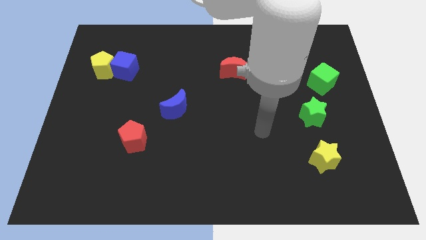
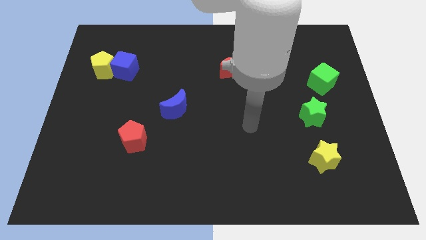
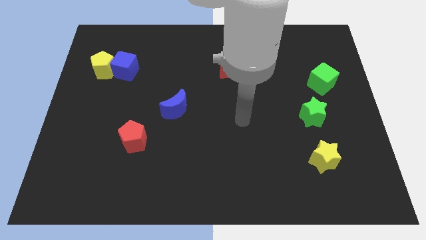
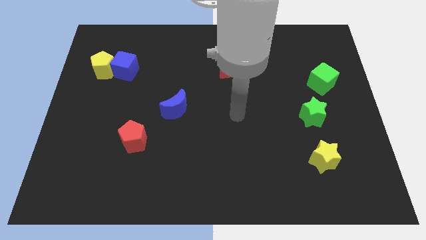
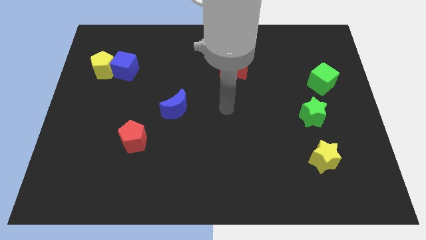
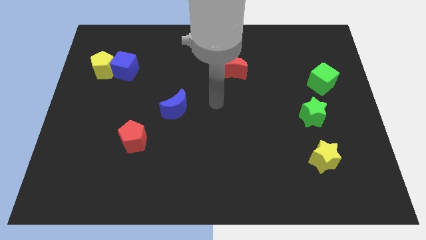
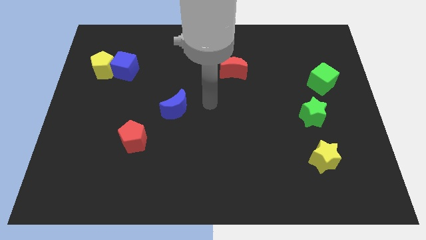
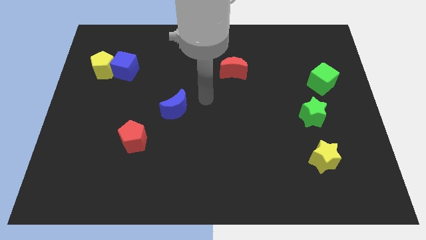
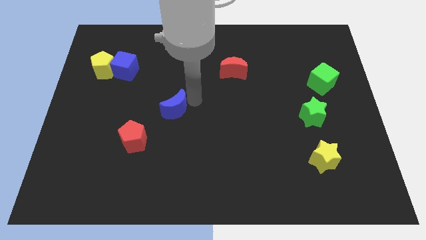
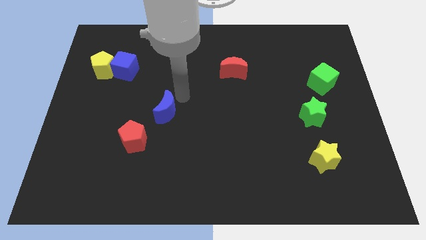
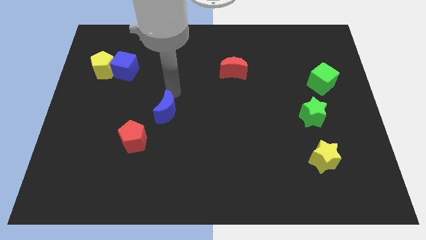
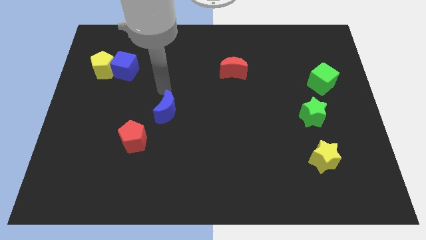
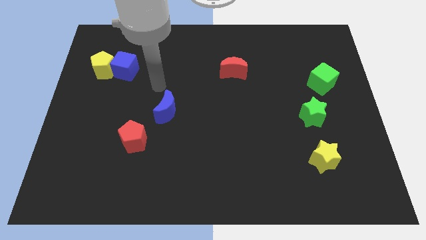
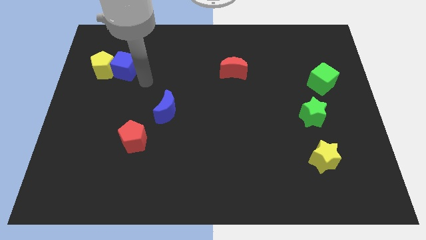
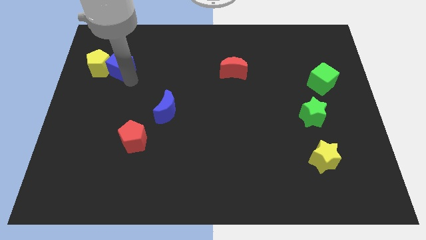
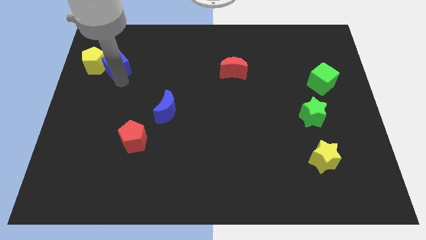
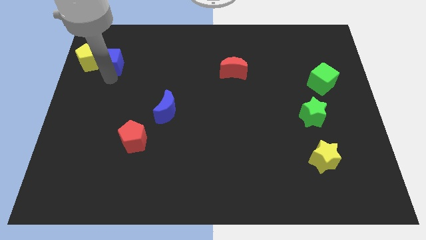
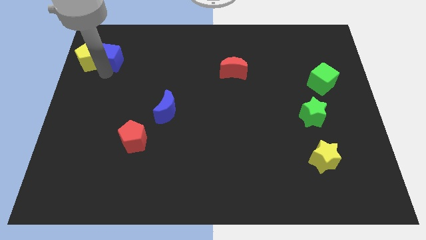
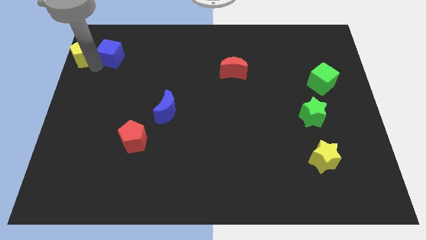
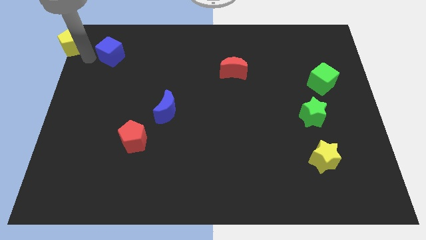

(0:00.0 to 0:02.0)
move the blue cube away from the yellow pentagon

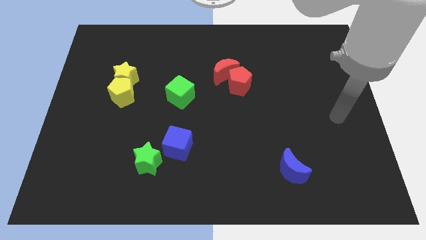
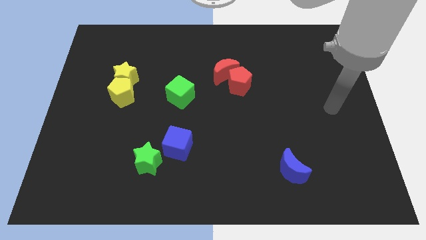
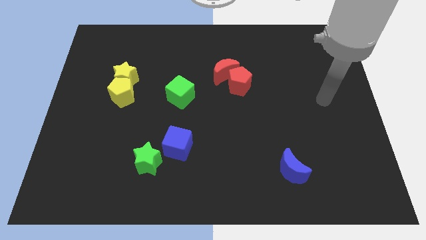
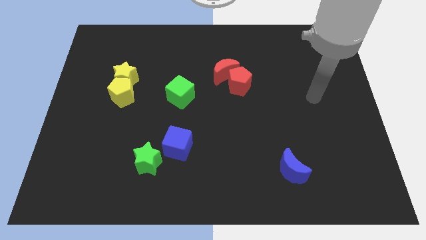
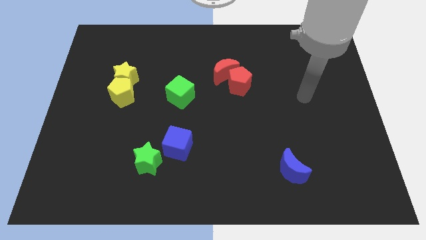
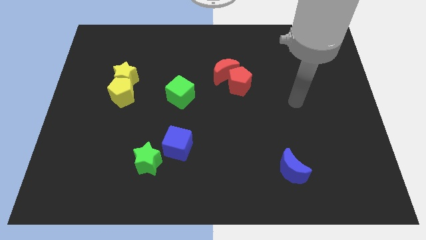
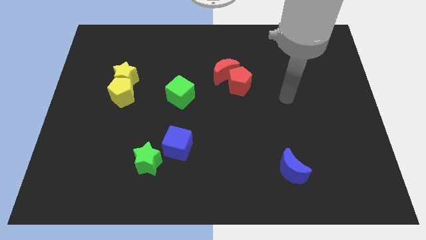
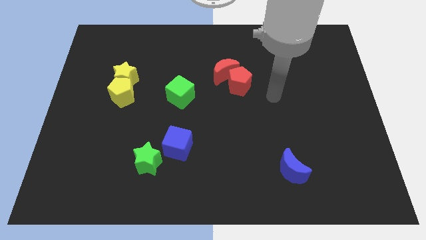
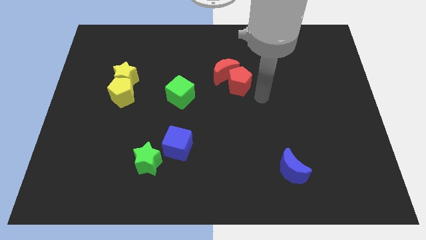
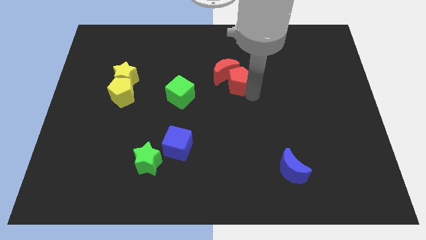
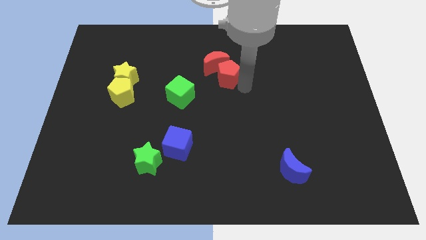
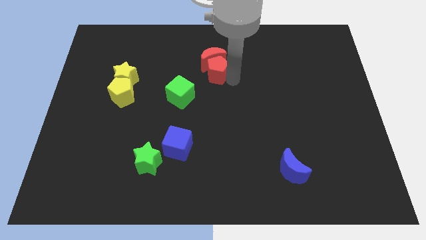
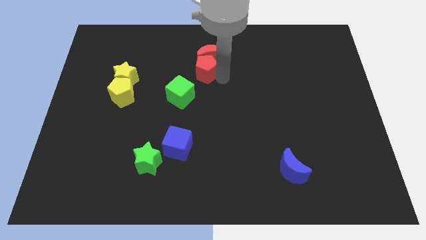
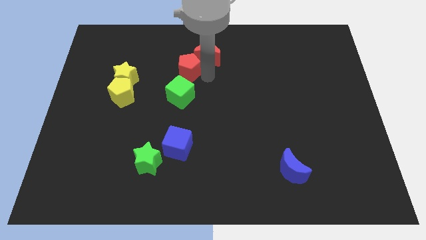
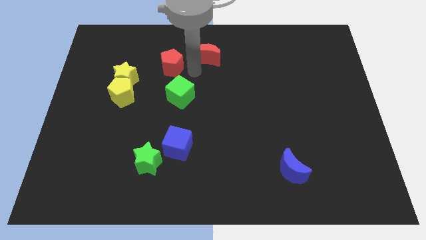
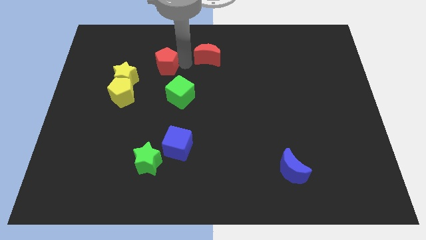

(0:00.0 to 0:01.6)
pull the red moon apart from the red pentagon

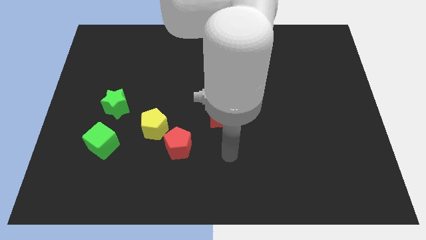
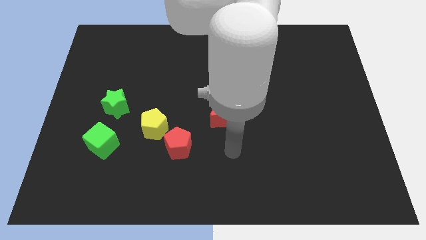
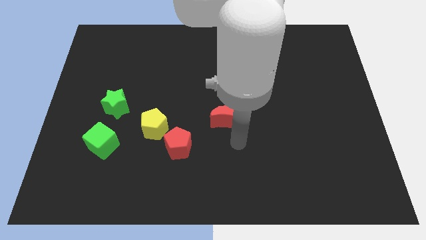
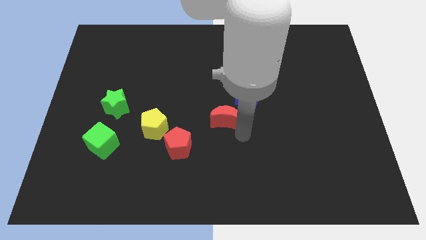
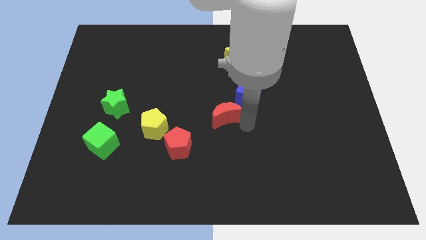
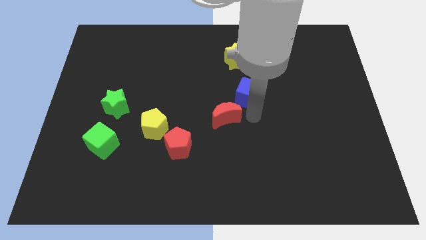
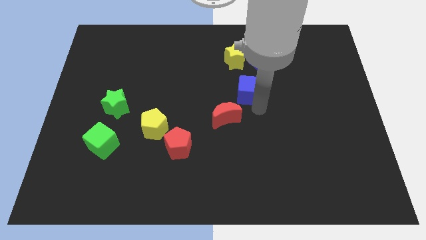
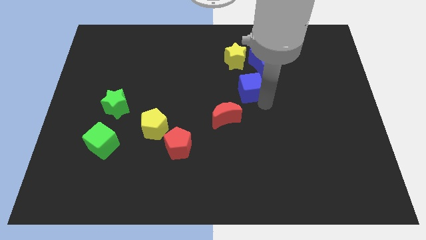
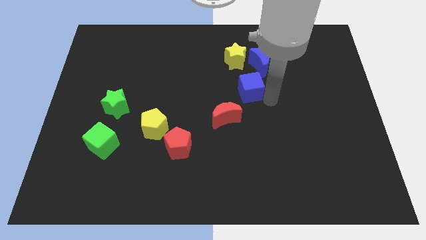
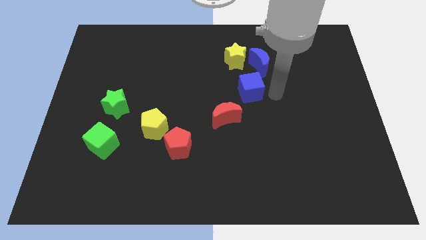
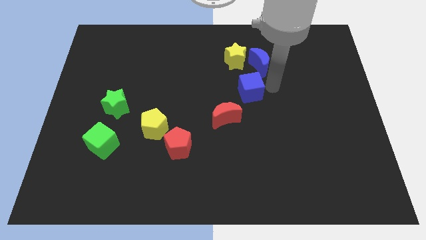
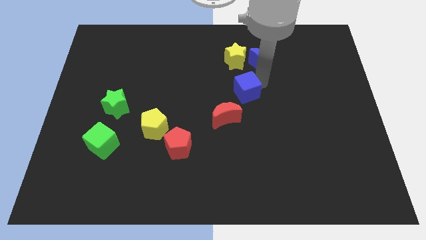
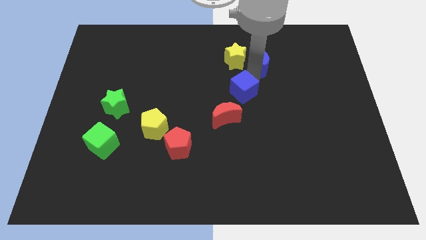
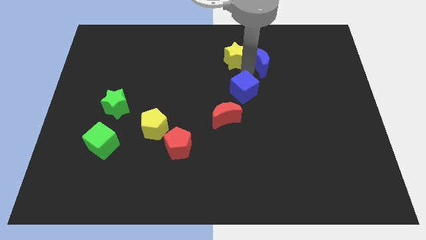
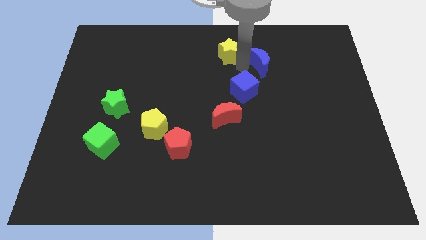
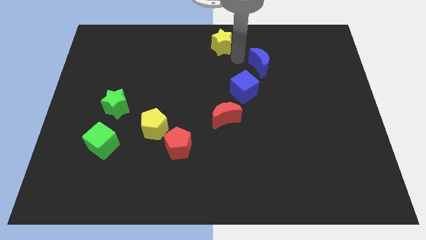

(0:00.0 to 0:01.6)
pull the blue moon apart from the yellow star

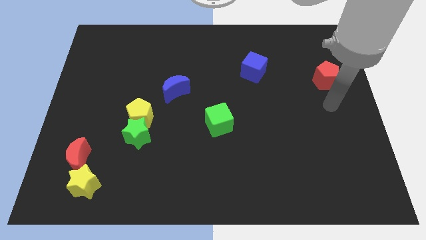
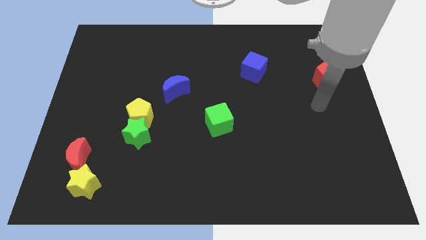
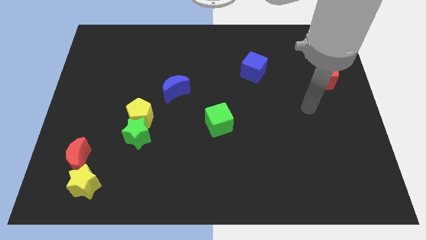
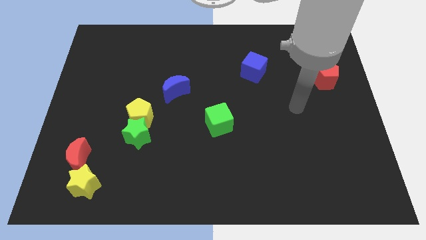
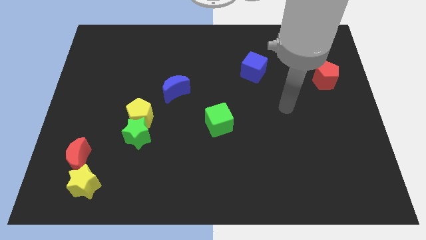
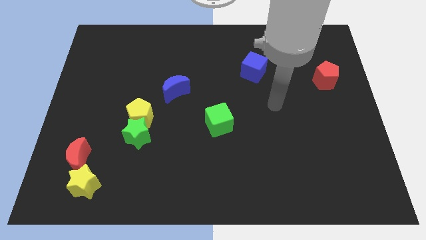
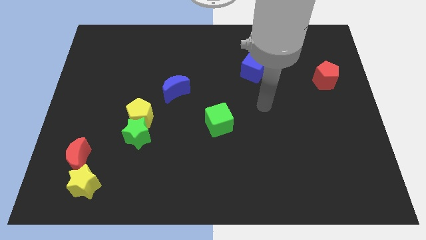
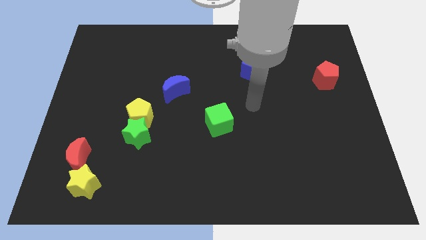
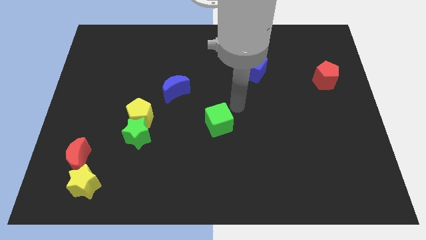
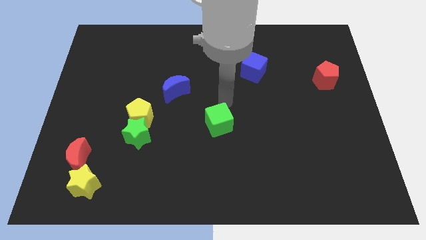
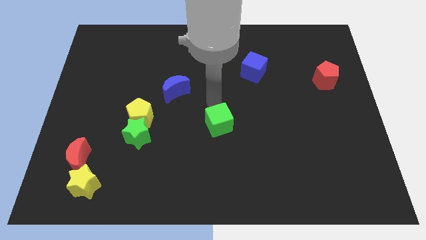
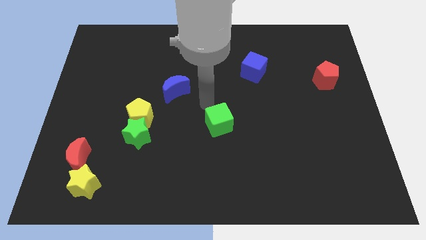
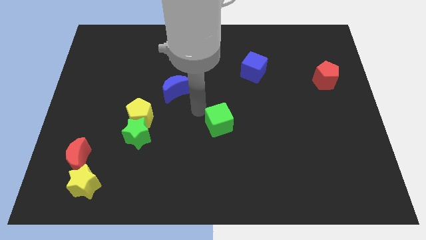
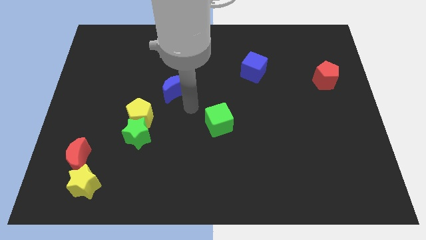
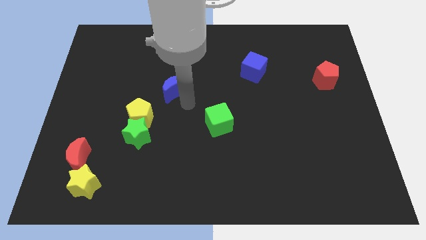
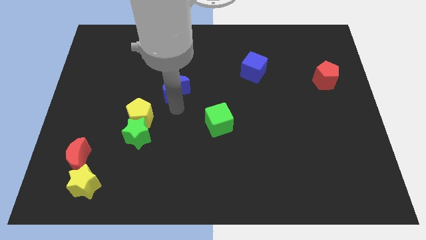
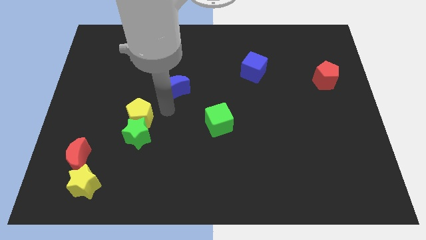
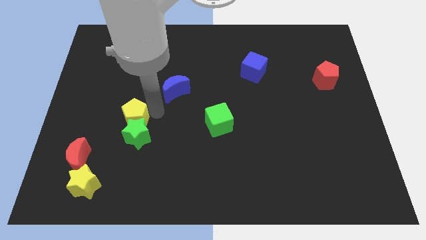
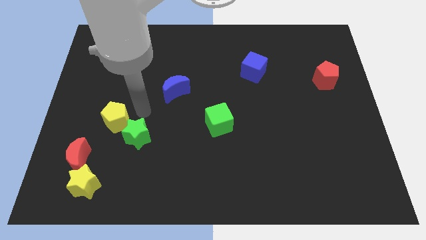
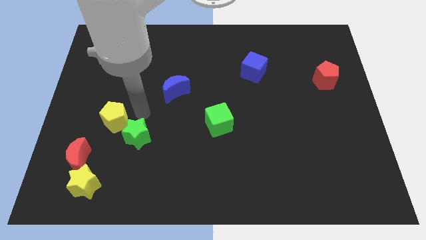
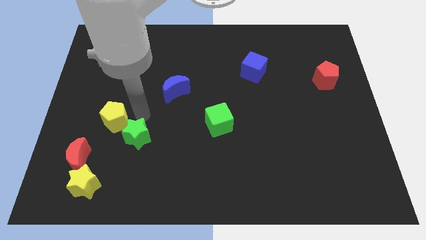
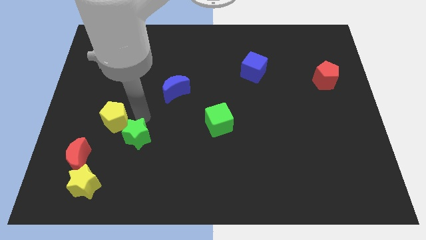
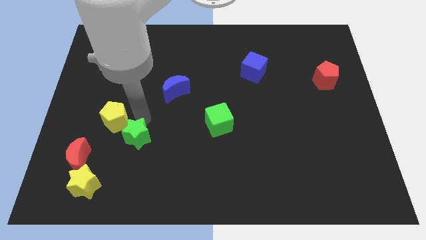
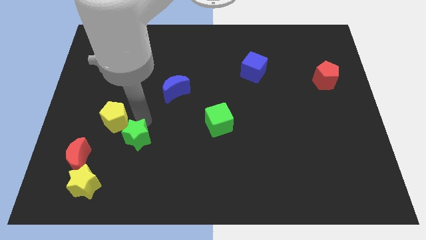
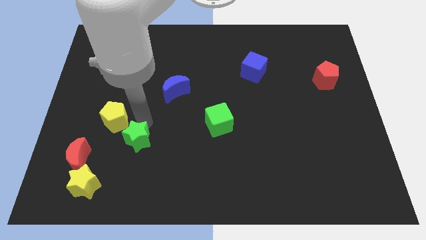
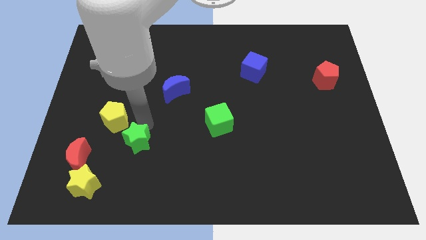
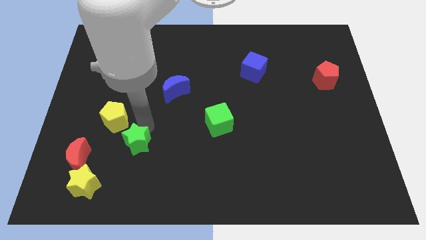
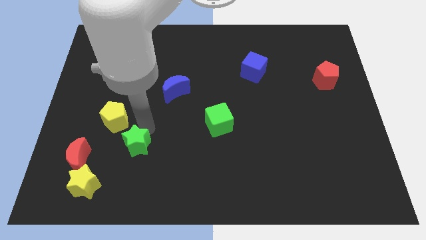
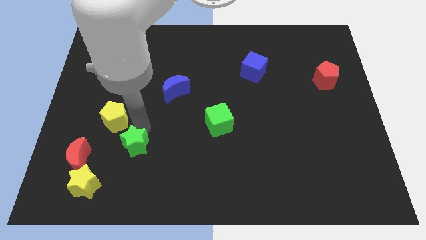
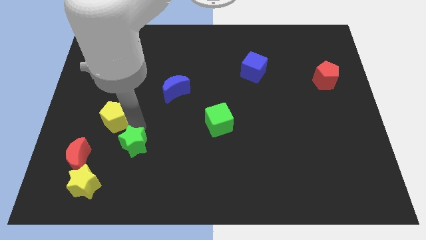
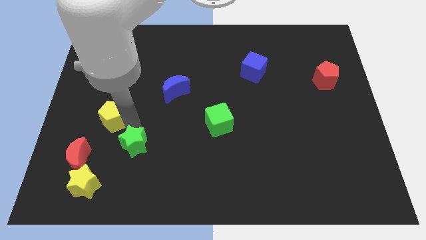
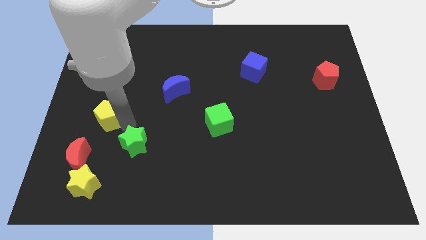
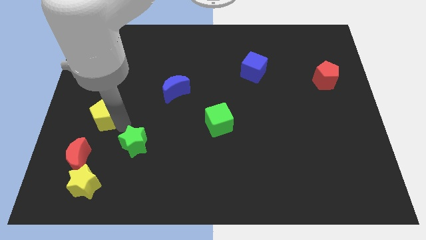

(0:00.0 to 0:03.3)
pull the green star apart from the yellow pentagon

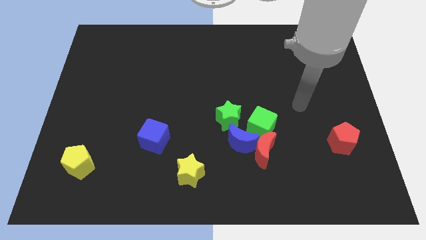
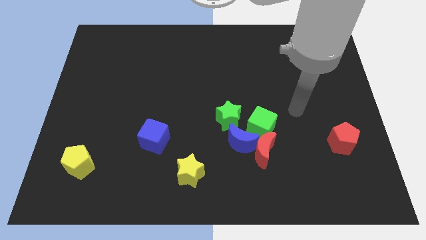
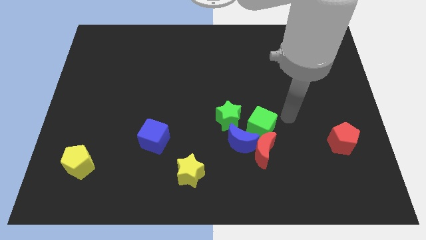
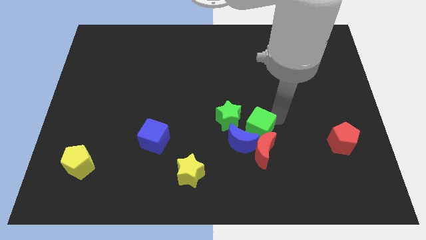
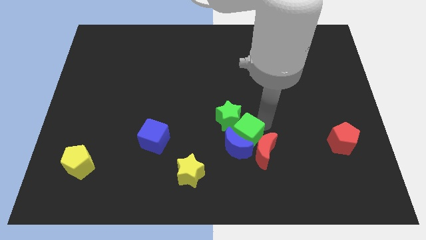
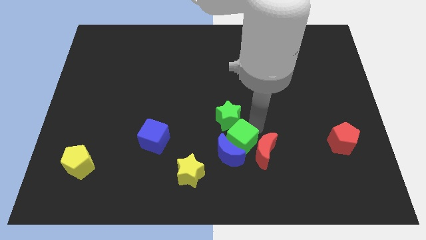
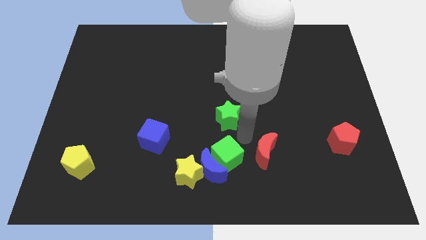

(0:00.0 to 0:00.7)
move the red moon away from the blue moon and green cube
